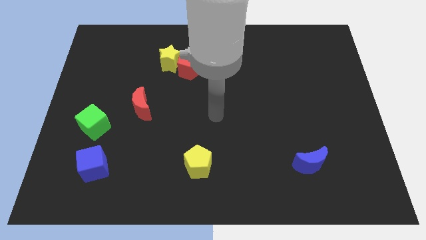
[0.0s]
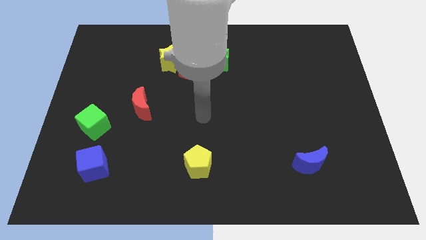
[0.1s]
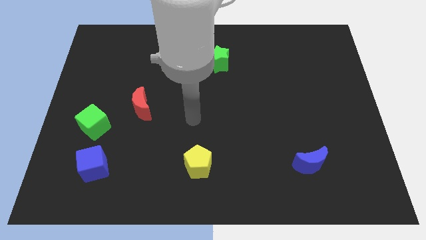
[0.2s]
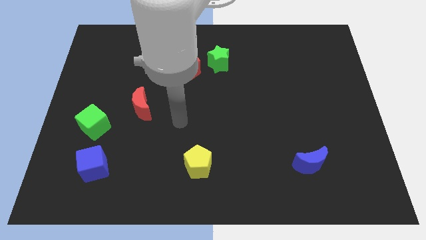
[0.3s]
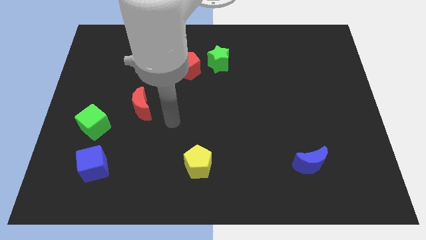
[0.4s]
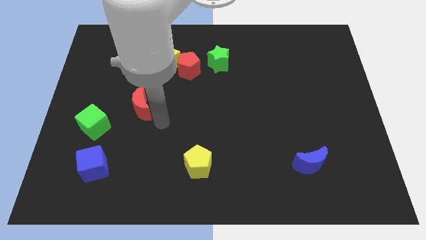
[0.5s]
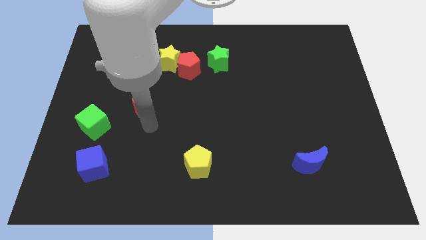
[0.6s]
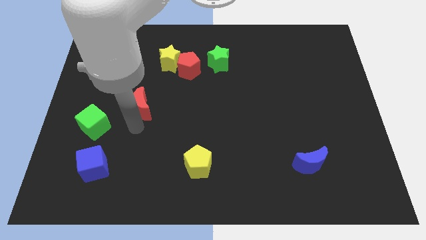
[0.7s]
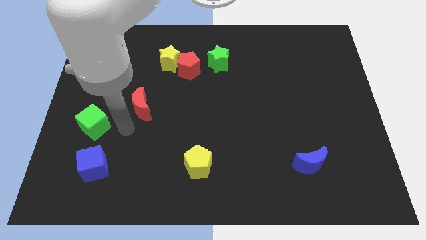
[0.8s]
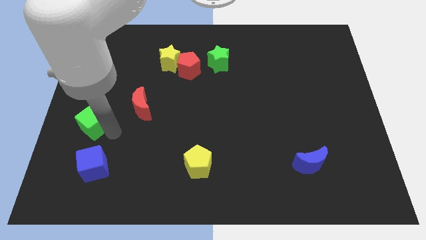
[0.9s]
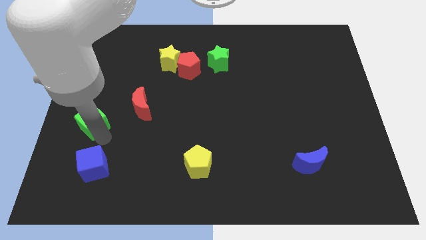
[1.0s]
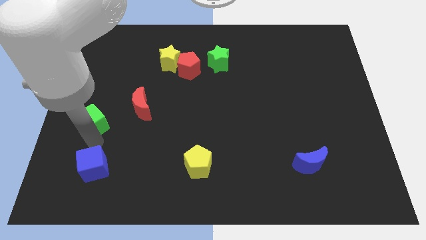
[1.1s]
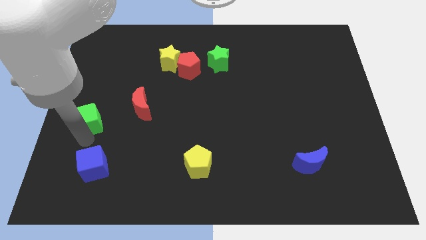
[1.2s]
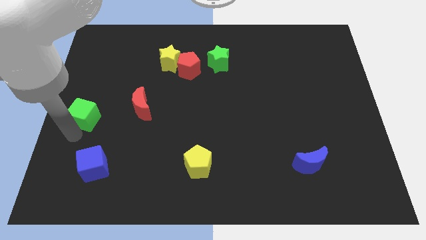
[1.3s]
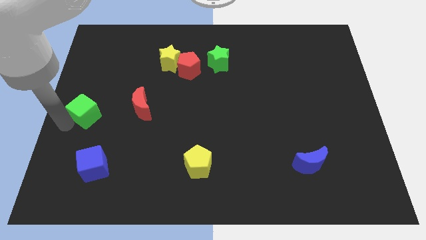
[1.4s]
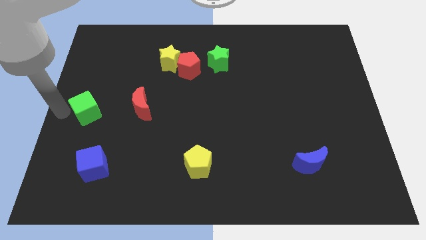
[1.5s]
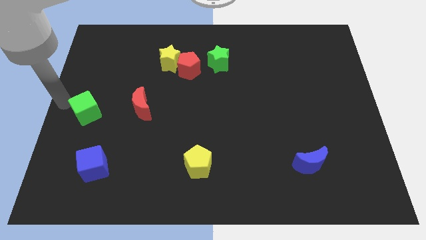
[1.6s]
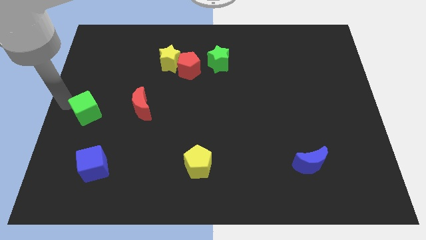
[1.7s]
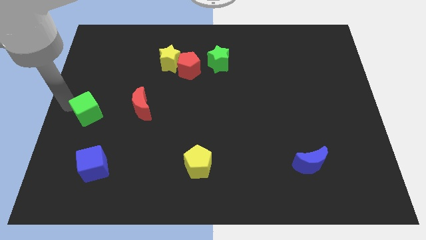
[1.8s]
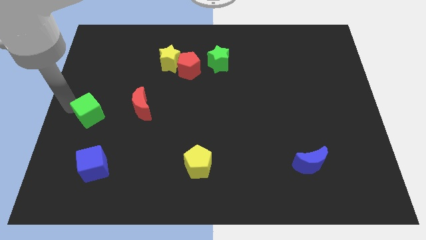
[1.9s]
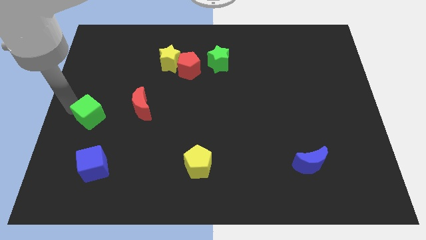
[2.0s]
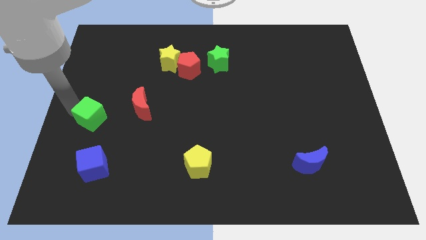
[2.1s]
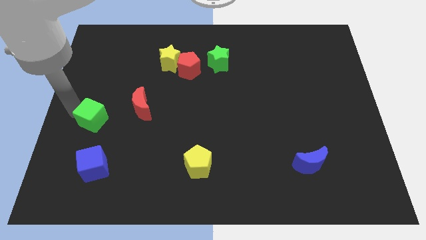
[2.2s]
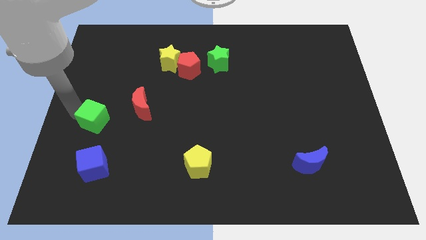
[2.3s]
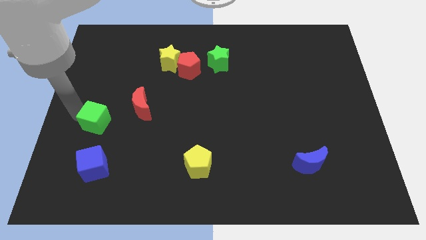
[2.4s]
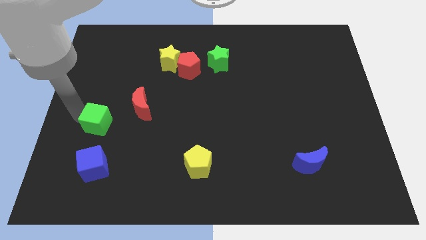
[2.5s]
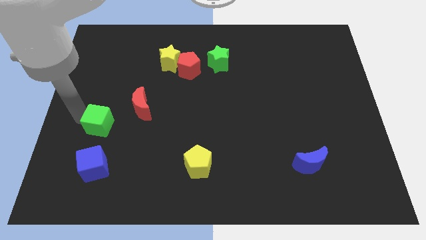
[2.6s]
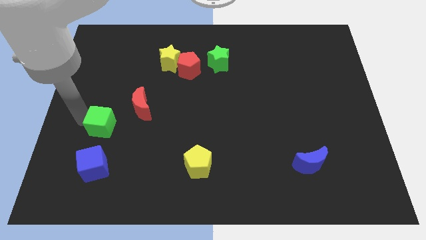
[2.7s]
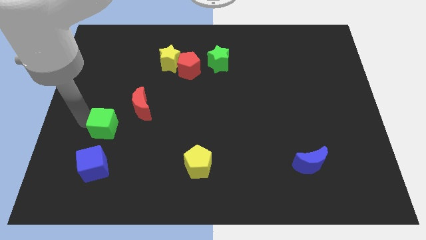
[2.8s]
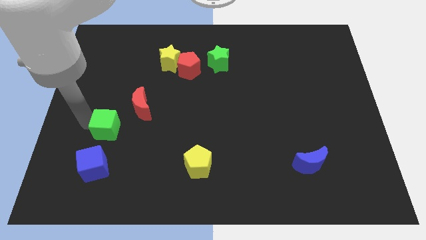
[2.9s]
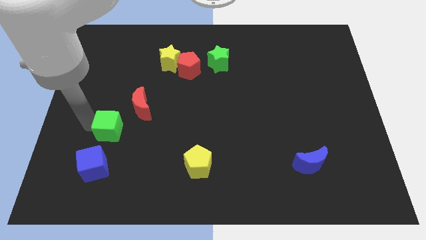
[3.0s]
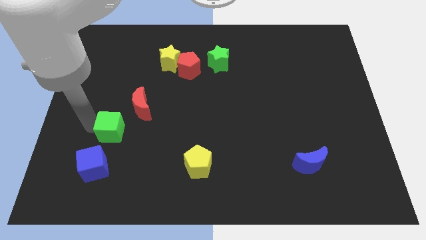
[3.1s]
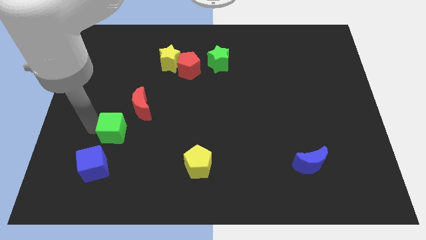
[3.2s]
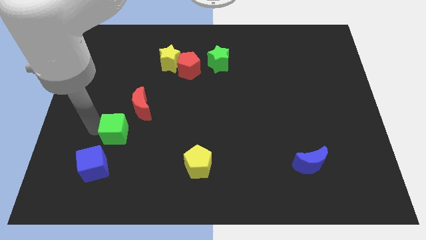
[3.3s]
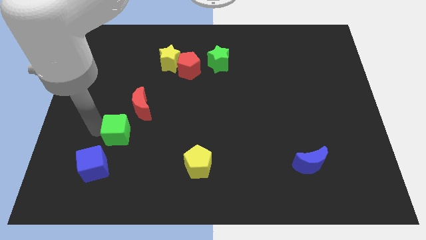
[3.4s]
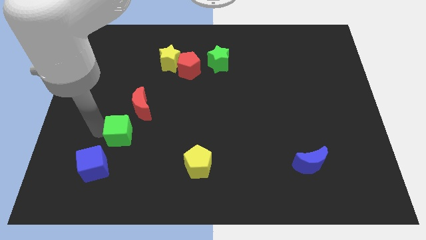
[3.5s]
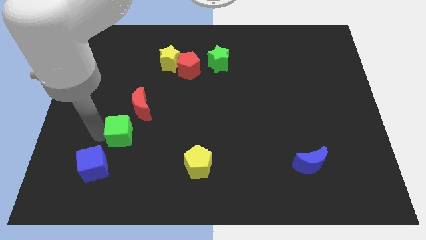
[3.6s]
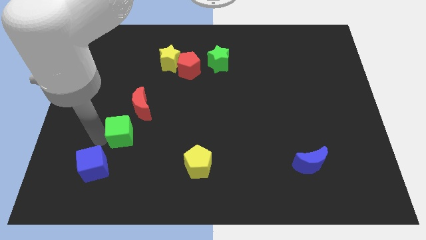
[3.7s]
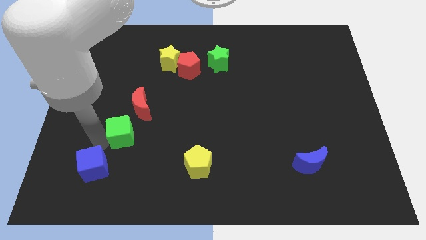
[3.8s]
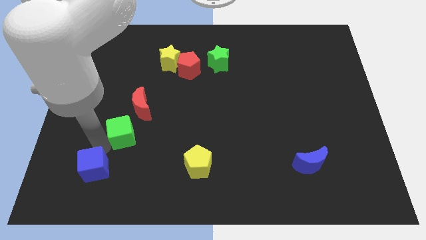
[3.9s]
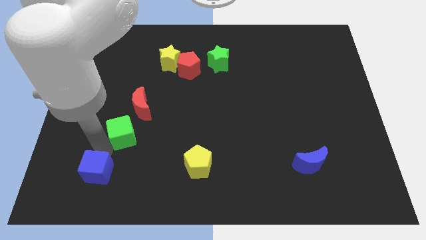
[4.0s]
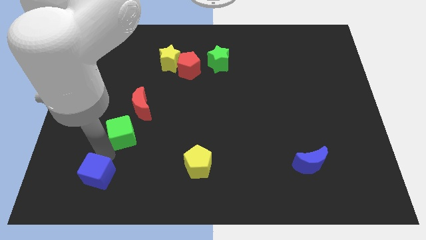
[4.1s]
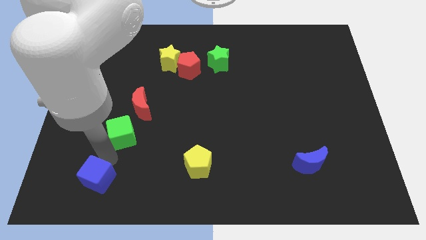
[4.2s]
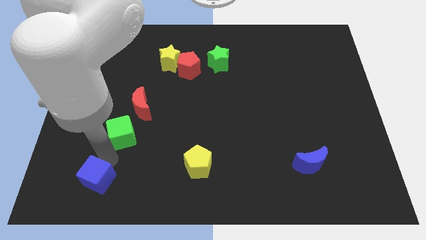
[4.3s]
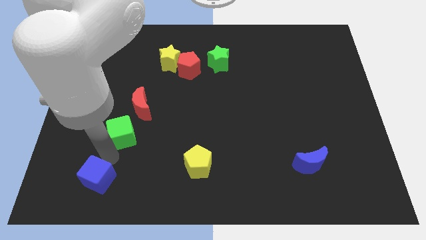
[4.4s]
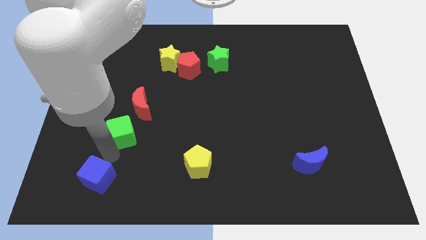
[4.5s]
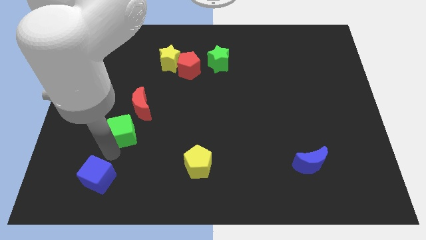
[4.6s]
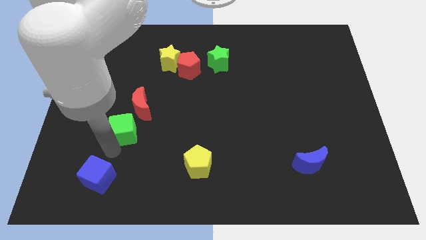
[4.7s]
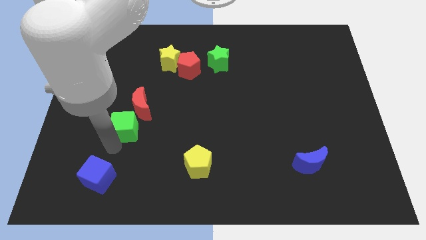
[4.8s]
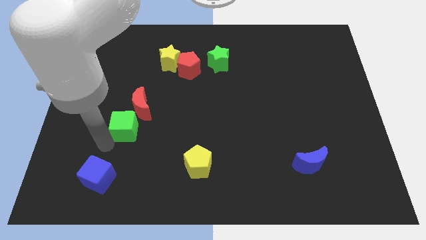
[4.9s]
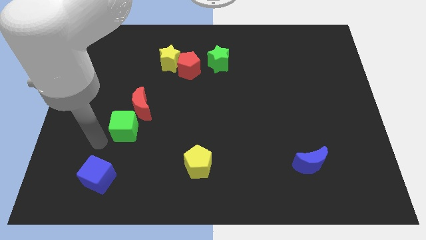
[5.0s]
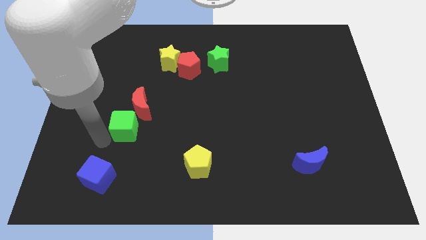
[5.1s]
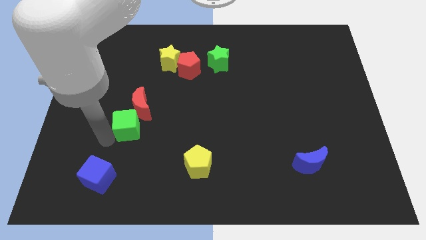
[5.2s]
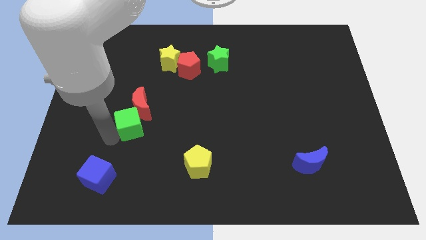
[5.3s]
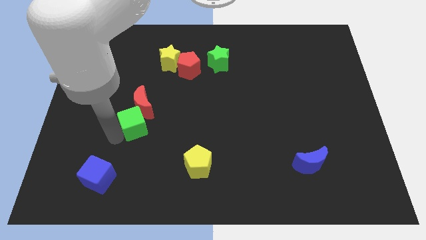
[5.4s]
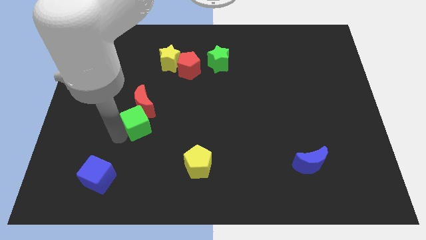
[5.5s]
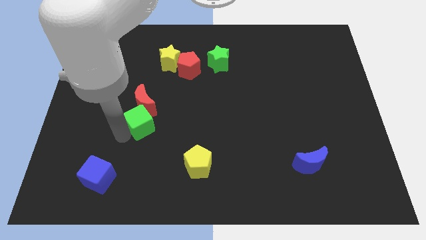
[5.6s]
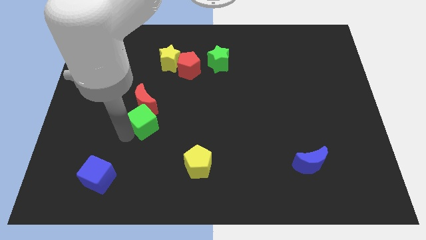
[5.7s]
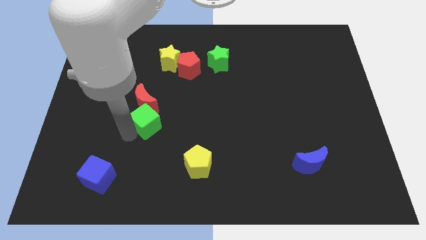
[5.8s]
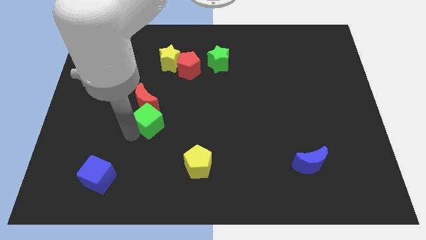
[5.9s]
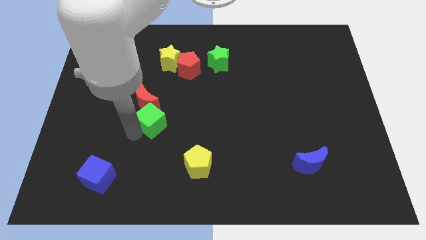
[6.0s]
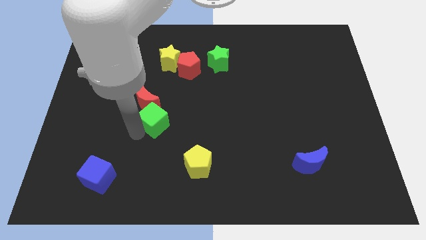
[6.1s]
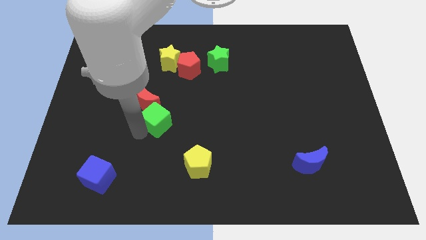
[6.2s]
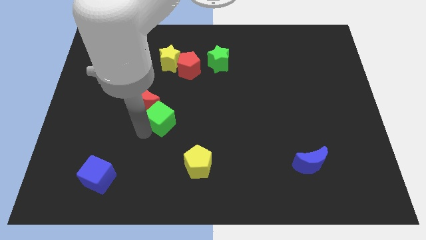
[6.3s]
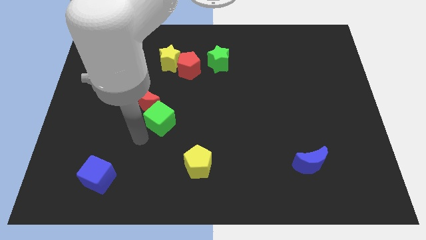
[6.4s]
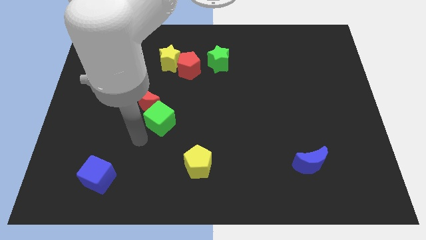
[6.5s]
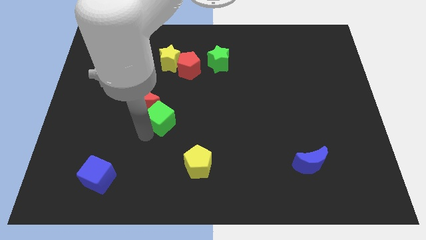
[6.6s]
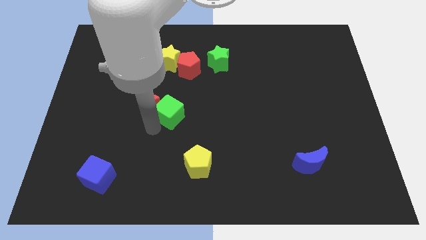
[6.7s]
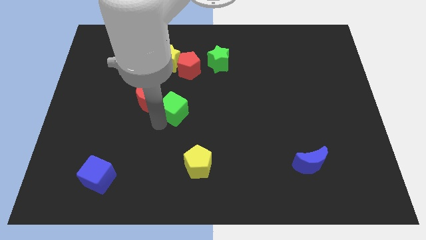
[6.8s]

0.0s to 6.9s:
put the green cube to the bottom of the red pentagon

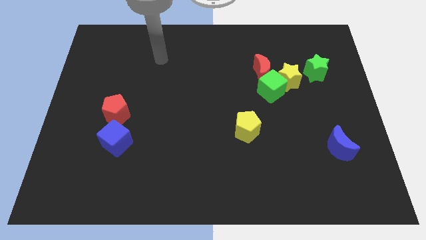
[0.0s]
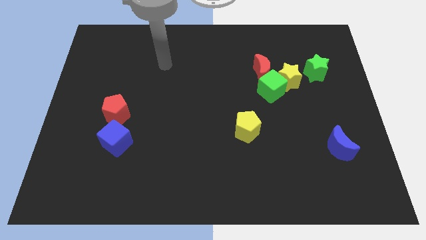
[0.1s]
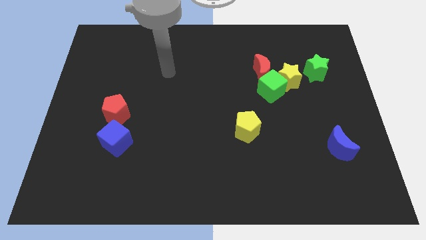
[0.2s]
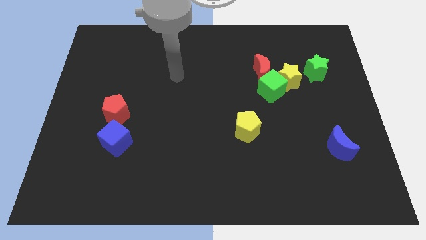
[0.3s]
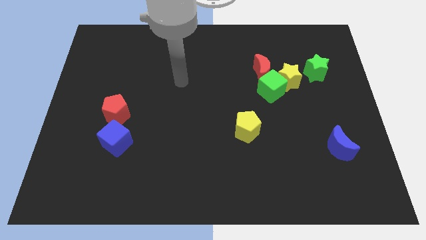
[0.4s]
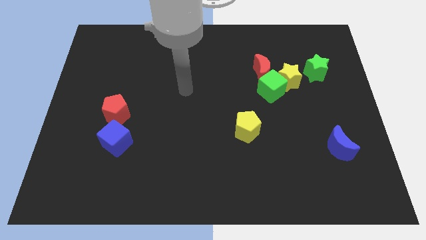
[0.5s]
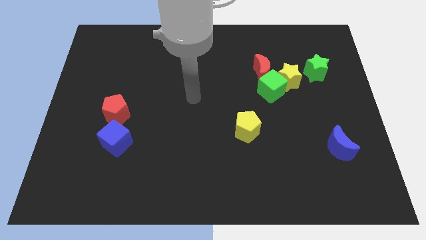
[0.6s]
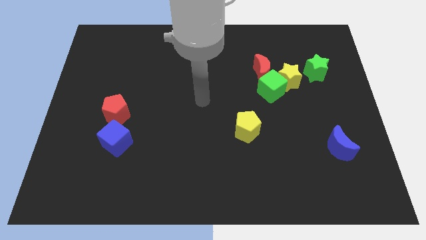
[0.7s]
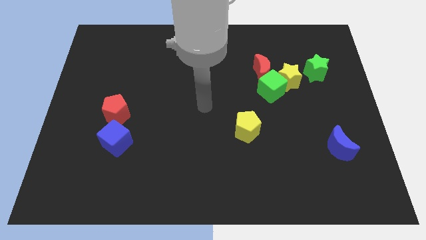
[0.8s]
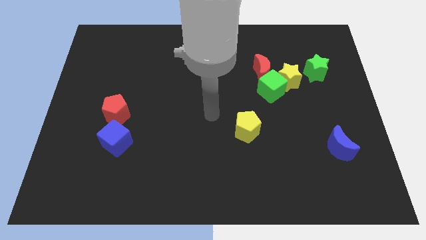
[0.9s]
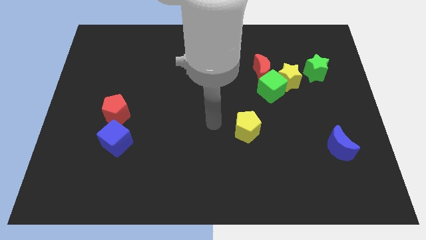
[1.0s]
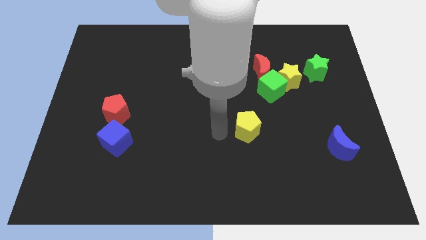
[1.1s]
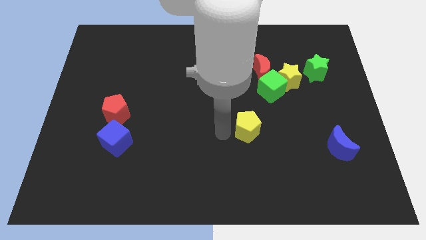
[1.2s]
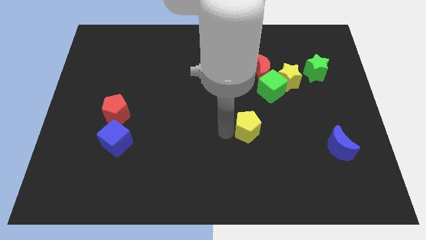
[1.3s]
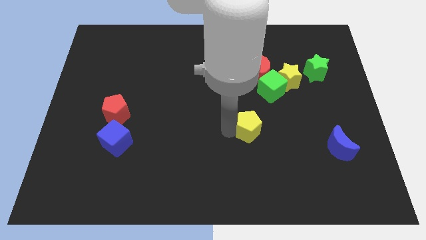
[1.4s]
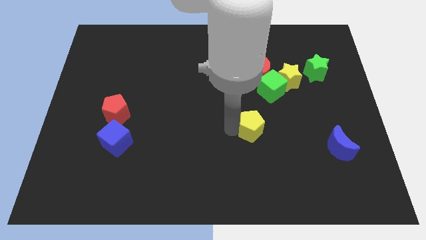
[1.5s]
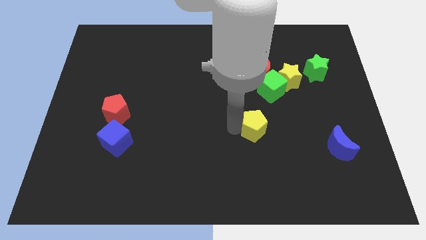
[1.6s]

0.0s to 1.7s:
put the yellow pentagon to the bottom side of the green cube
